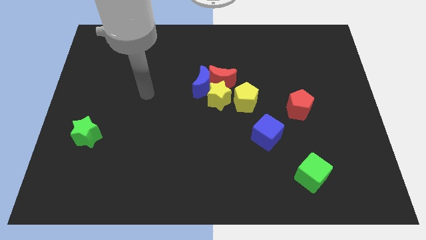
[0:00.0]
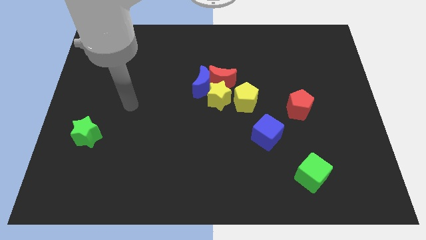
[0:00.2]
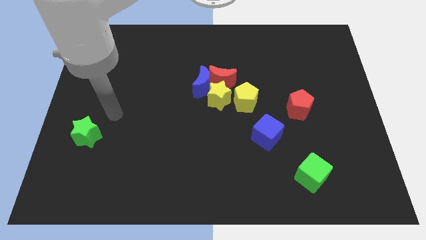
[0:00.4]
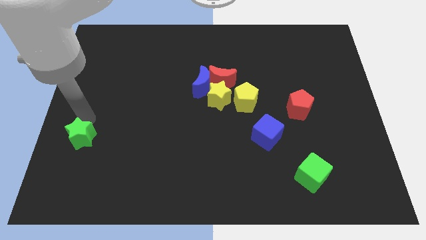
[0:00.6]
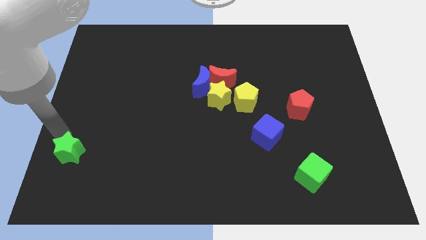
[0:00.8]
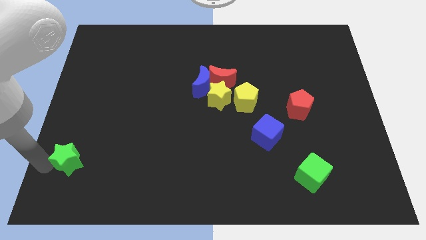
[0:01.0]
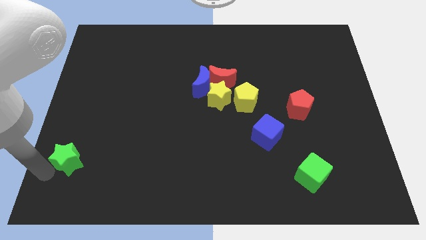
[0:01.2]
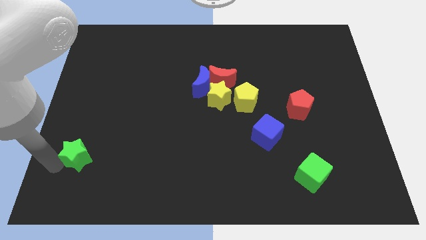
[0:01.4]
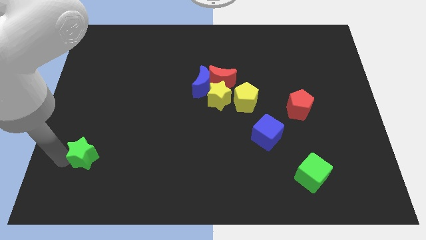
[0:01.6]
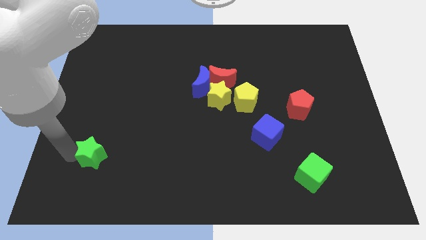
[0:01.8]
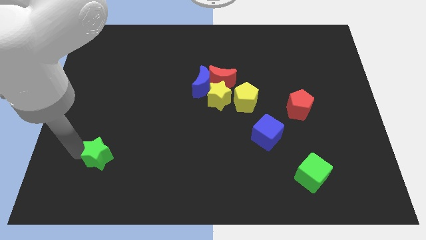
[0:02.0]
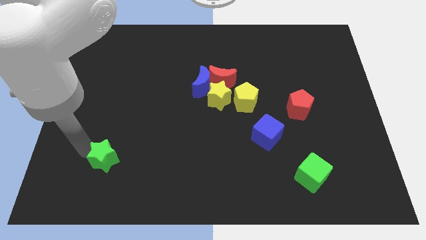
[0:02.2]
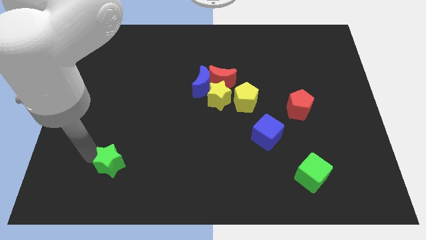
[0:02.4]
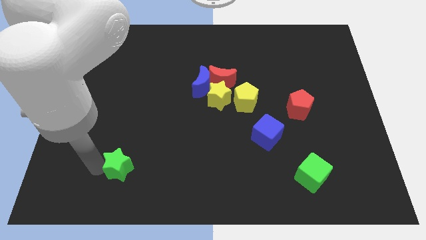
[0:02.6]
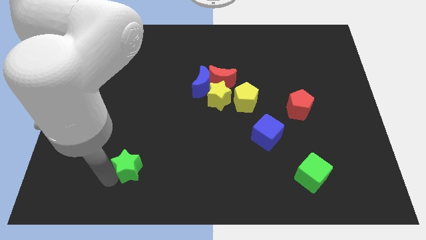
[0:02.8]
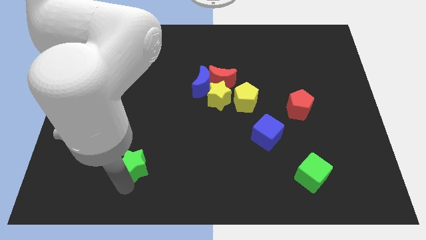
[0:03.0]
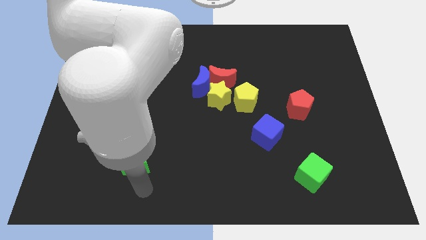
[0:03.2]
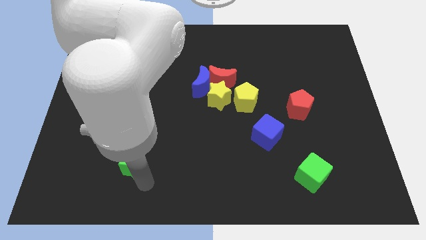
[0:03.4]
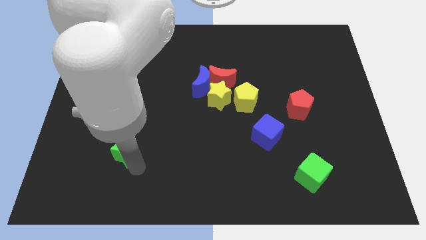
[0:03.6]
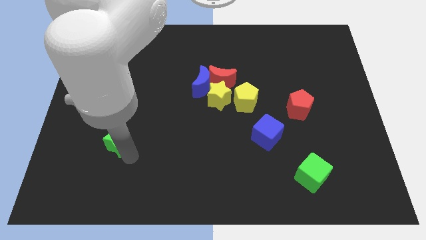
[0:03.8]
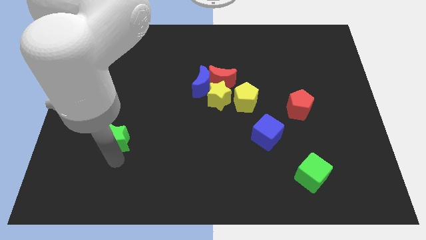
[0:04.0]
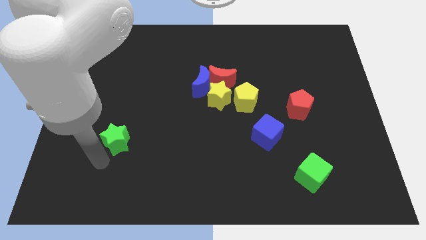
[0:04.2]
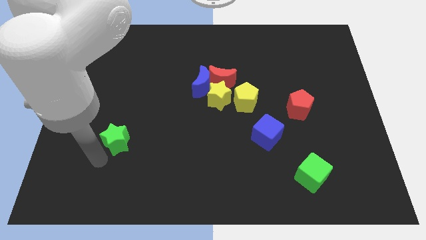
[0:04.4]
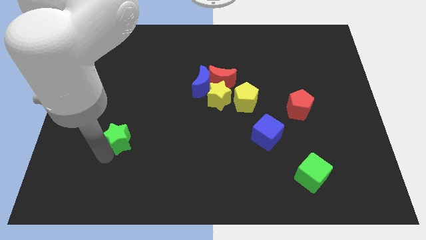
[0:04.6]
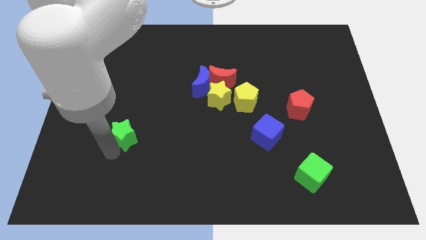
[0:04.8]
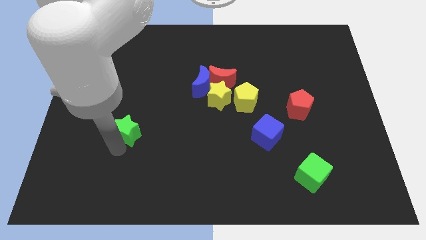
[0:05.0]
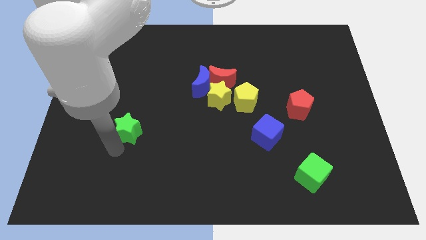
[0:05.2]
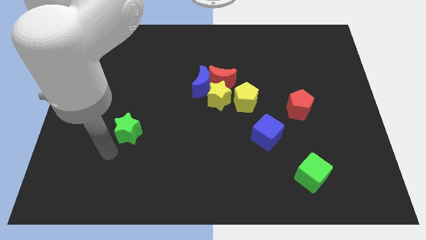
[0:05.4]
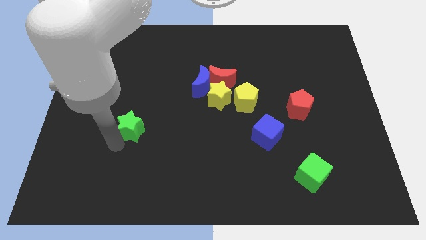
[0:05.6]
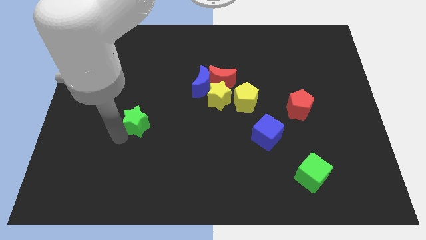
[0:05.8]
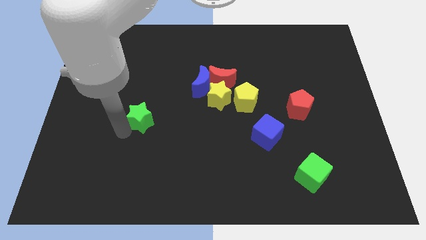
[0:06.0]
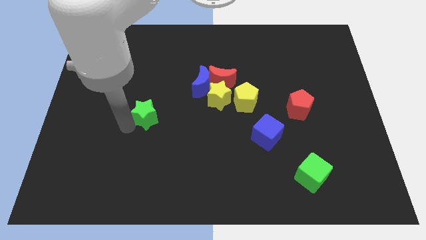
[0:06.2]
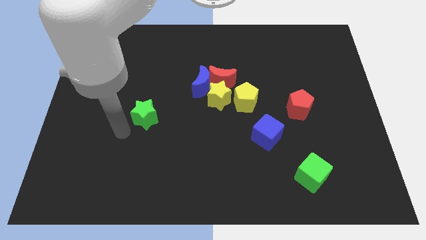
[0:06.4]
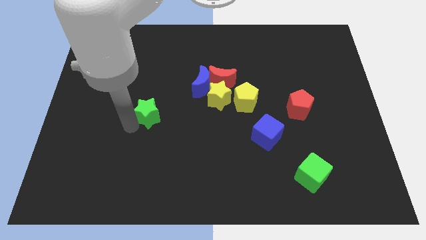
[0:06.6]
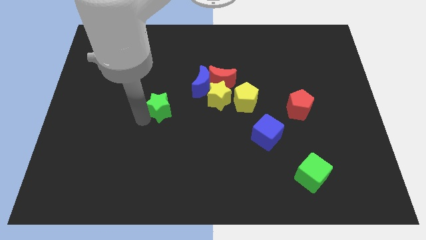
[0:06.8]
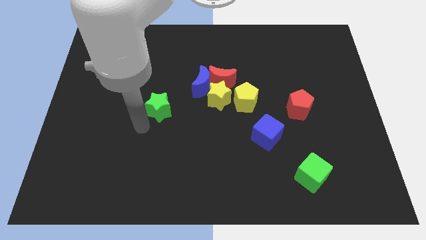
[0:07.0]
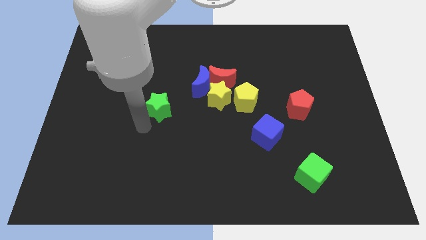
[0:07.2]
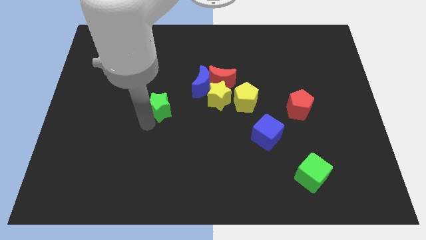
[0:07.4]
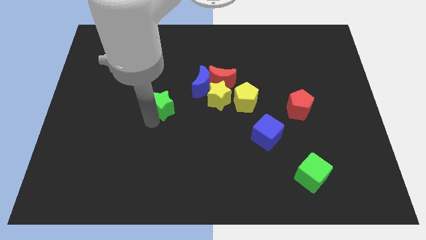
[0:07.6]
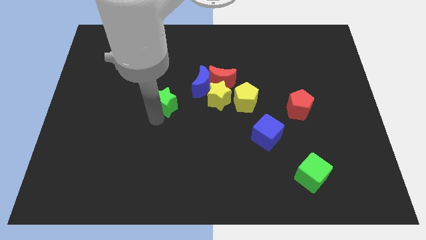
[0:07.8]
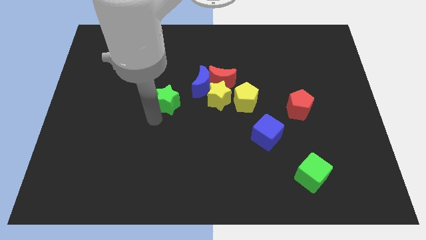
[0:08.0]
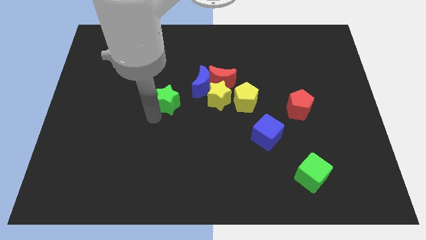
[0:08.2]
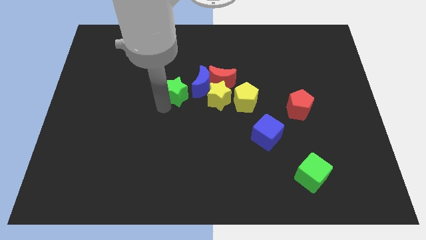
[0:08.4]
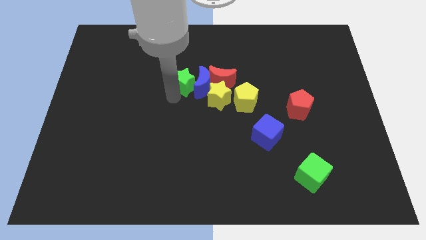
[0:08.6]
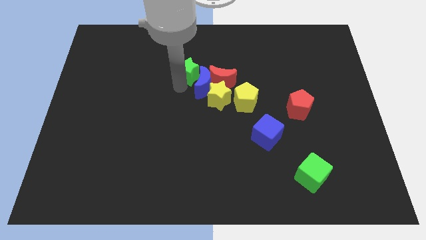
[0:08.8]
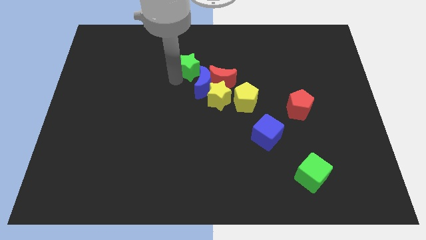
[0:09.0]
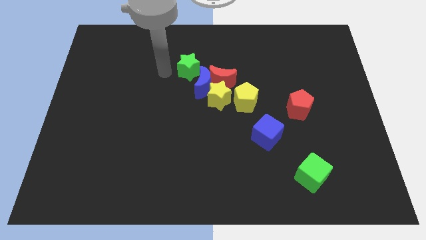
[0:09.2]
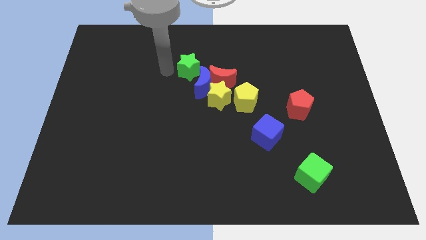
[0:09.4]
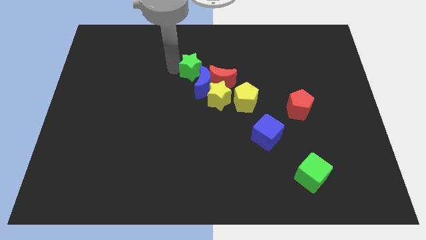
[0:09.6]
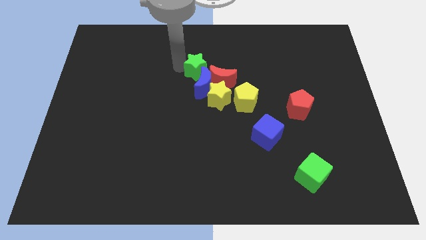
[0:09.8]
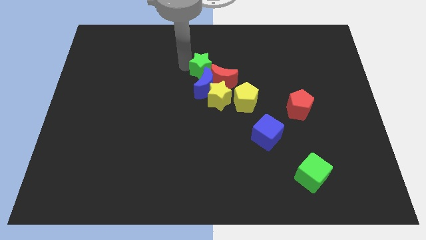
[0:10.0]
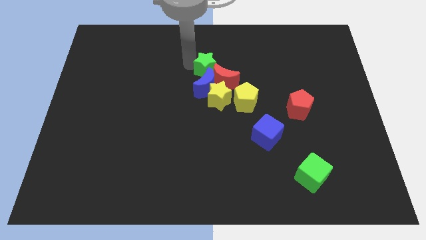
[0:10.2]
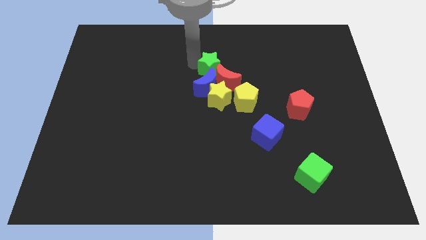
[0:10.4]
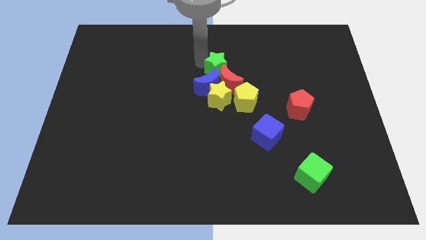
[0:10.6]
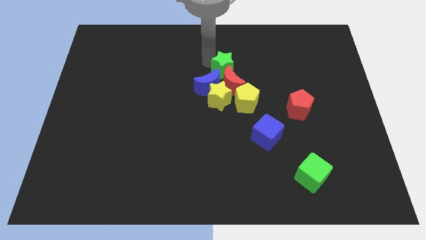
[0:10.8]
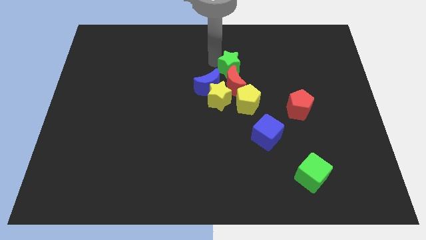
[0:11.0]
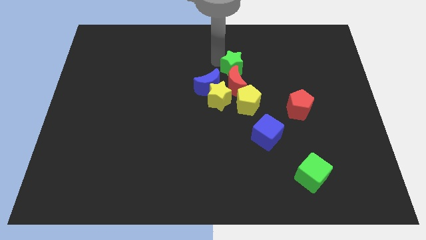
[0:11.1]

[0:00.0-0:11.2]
push the green star diagonally up and to the right of the red moon

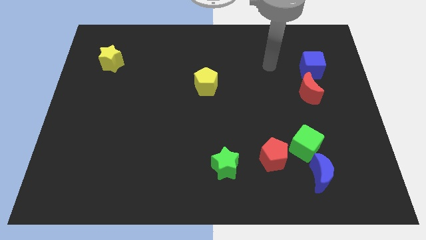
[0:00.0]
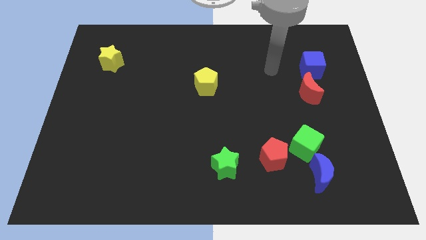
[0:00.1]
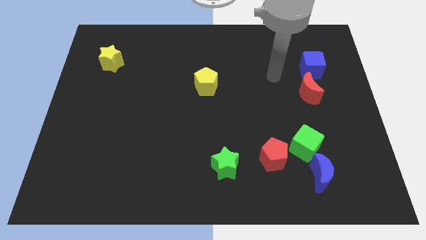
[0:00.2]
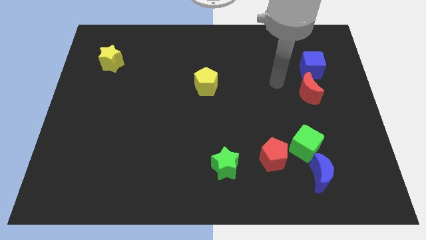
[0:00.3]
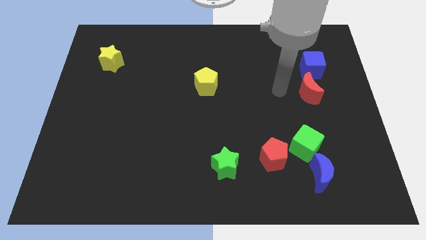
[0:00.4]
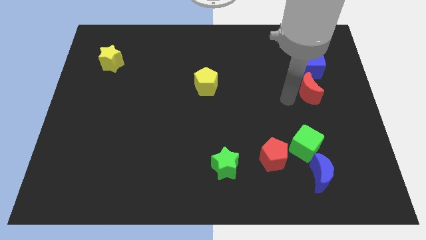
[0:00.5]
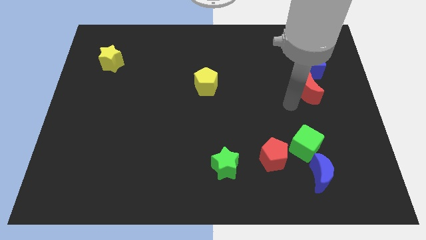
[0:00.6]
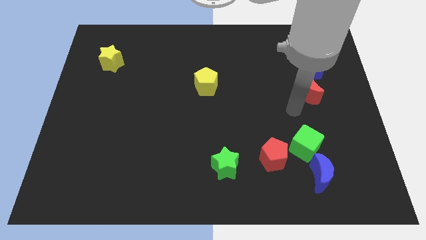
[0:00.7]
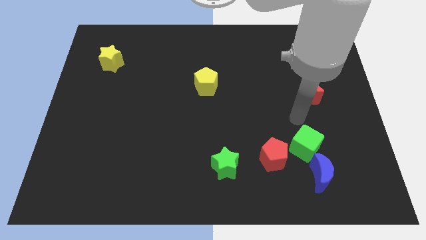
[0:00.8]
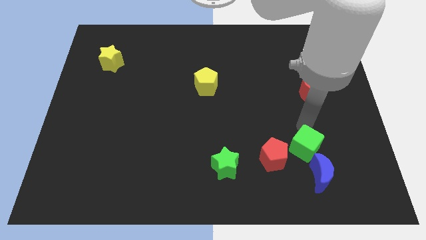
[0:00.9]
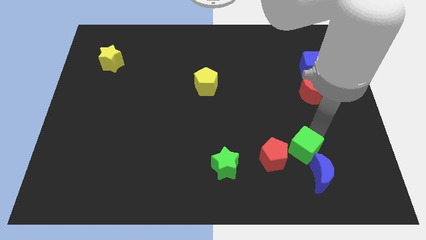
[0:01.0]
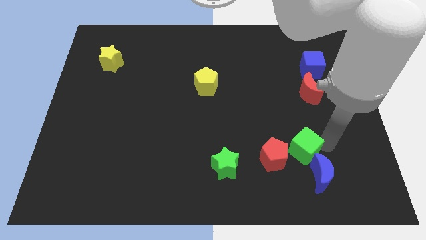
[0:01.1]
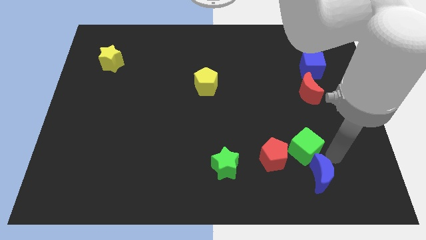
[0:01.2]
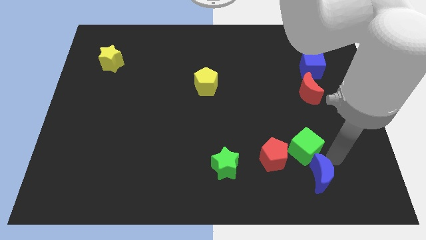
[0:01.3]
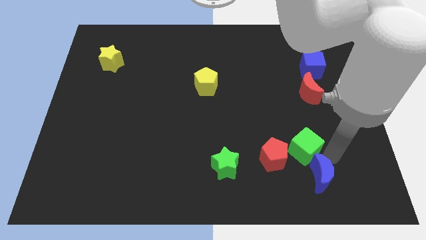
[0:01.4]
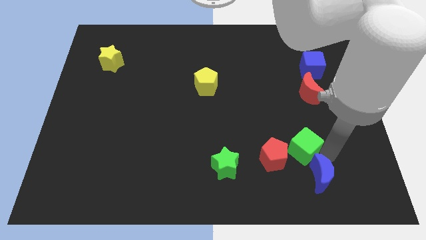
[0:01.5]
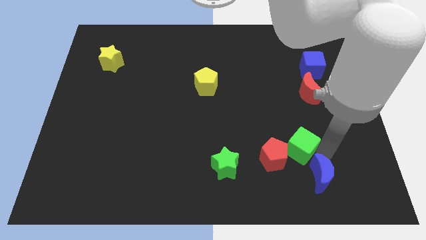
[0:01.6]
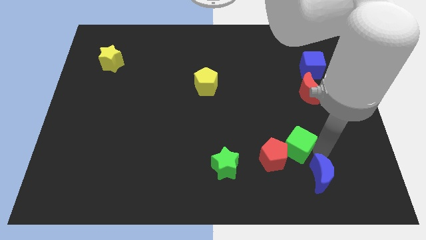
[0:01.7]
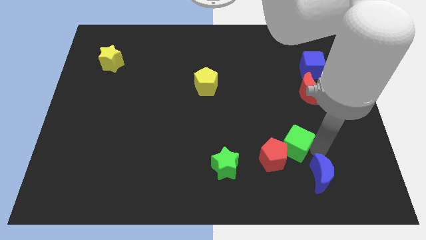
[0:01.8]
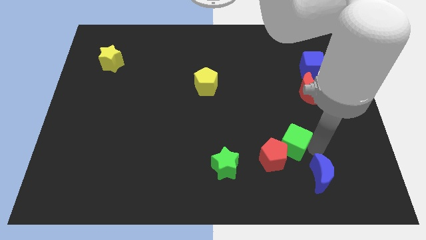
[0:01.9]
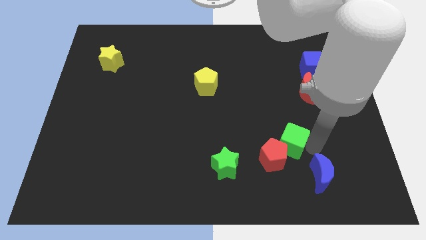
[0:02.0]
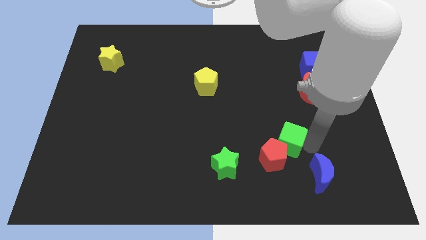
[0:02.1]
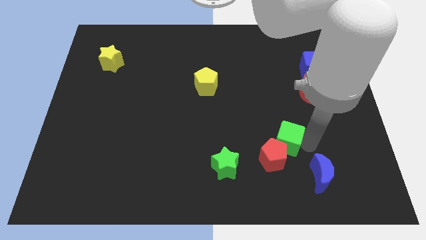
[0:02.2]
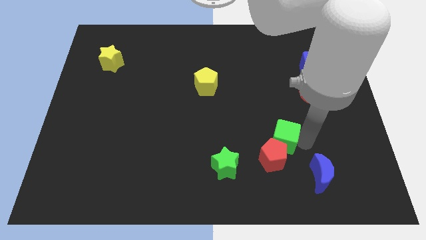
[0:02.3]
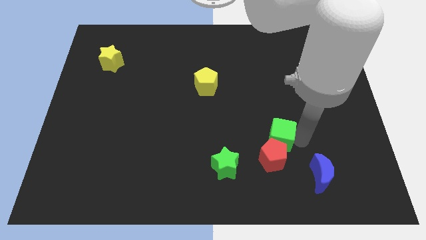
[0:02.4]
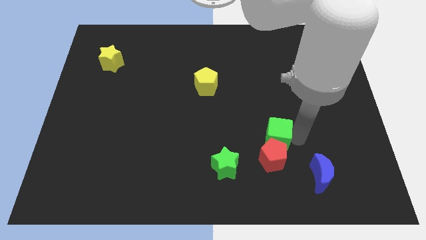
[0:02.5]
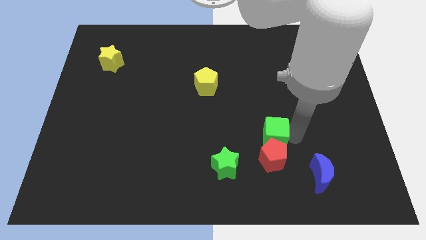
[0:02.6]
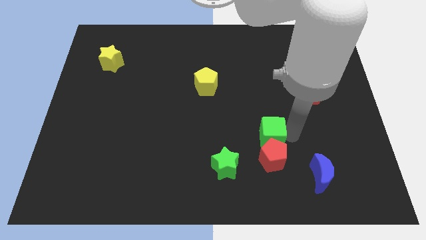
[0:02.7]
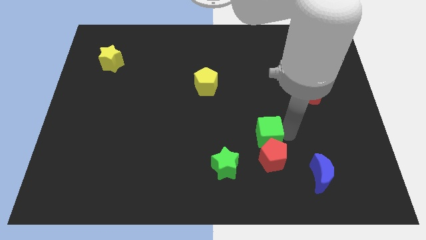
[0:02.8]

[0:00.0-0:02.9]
push the green cube to the top right of the green star
